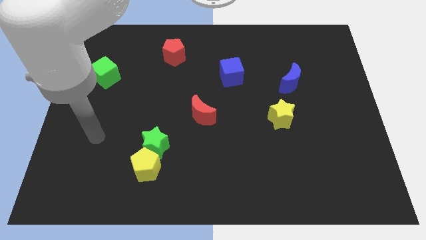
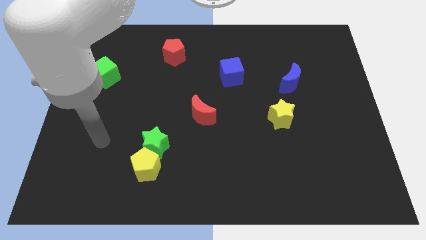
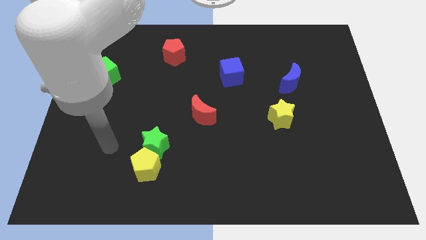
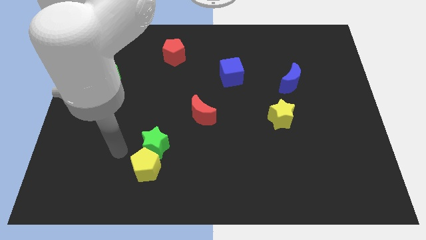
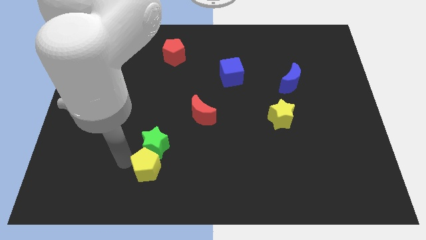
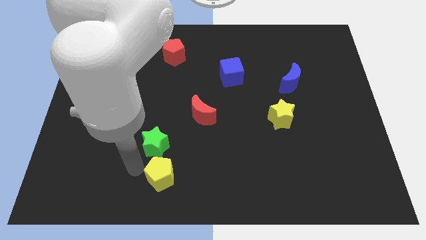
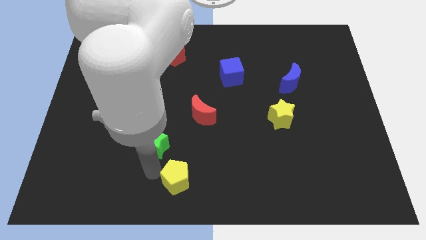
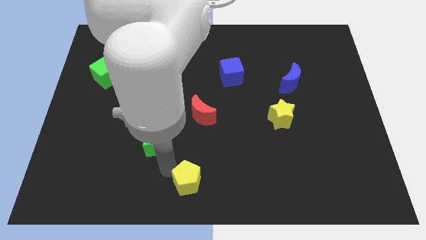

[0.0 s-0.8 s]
separate the green star from the yellow pentagon

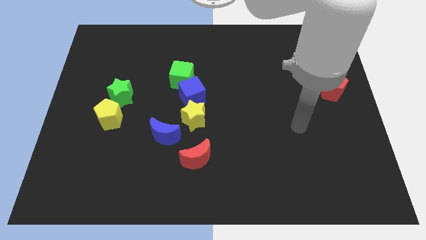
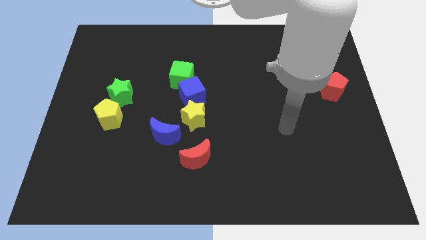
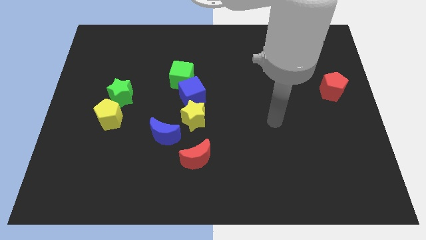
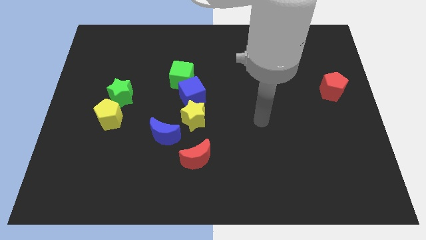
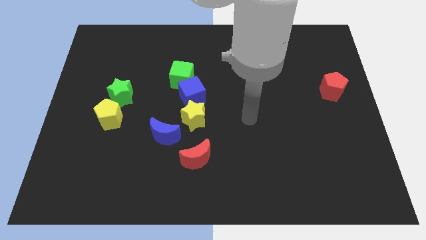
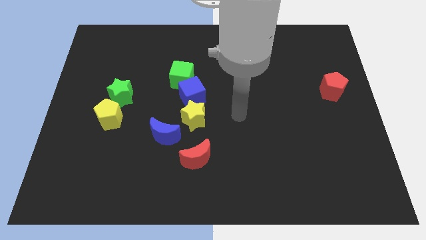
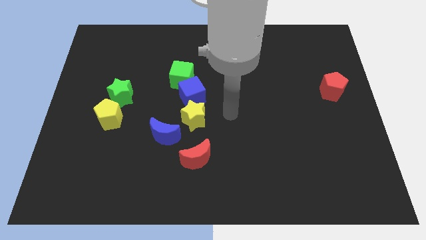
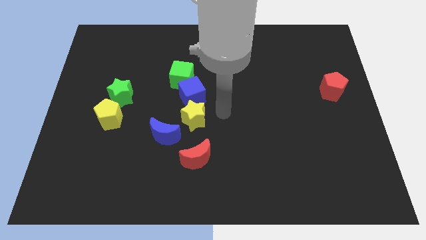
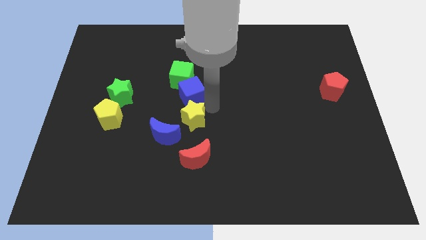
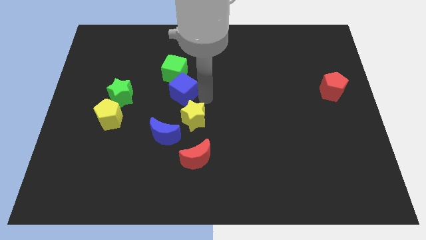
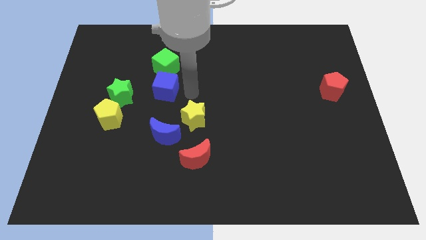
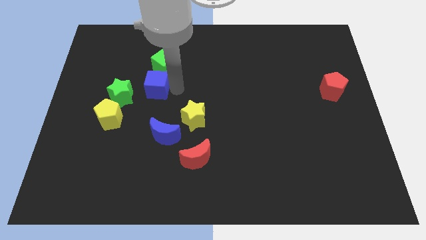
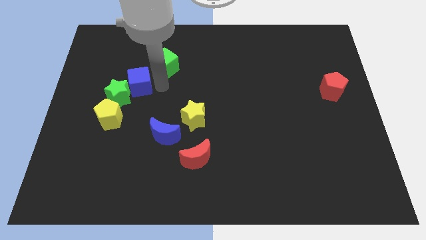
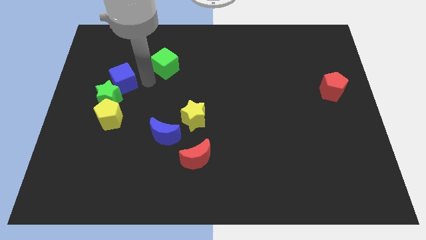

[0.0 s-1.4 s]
move the green cube away from the blue cube

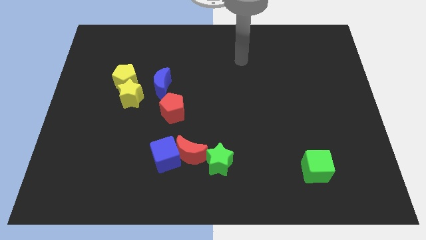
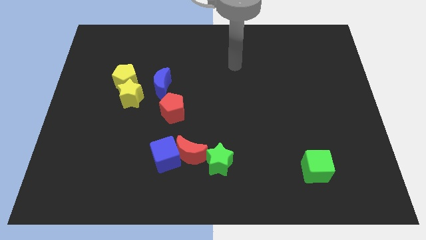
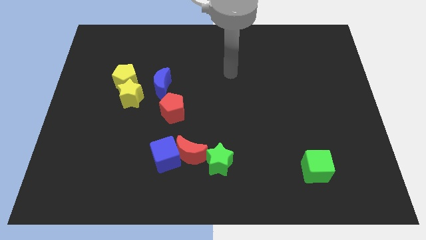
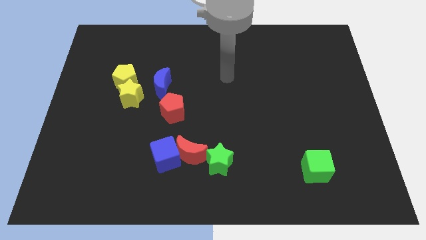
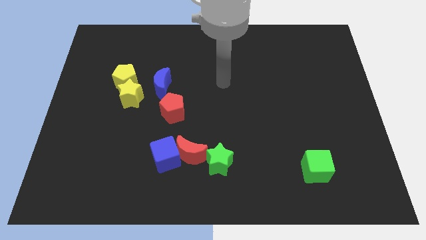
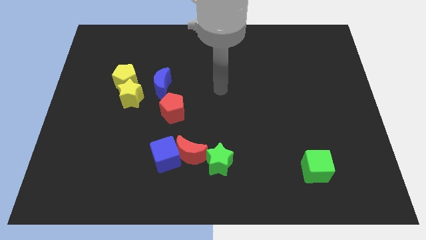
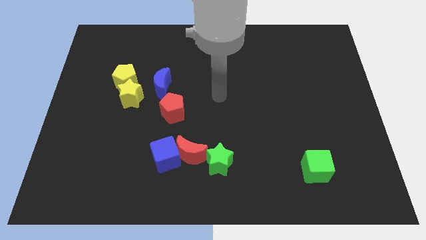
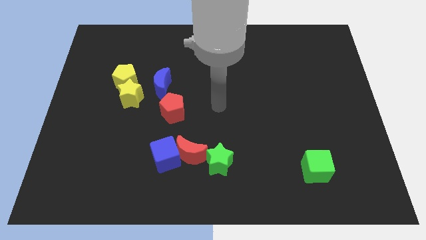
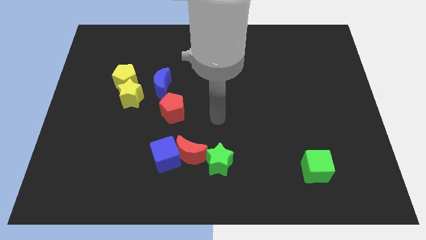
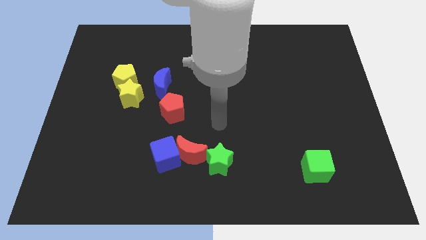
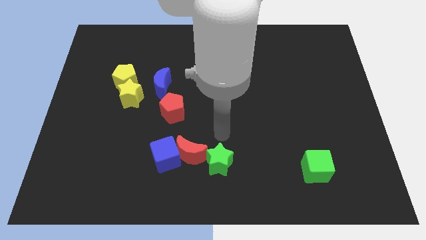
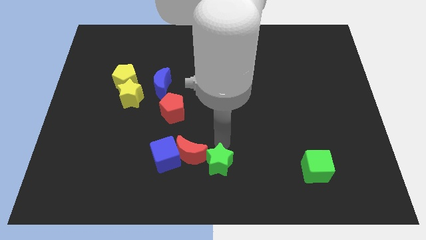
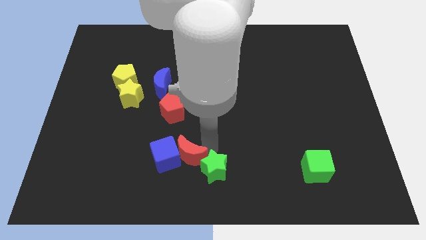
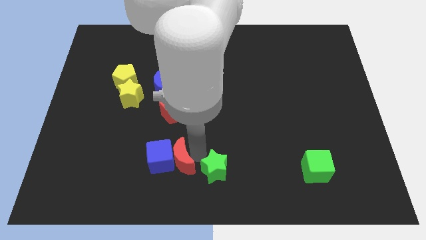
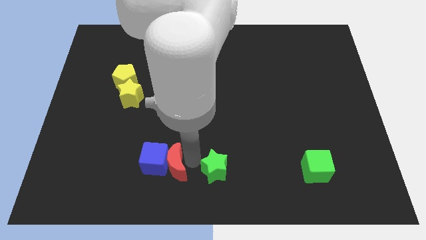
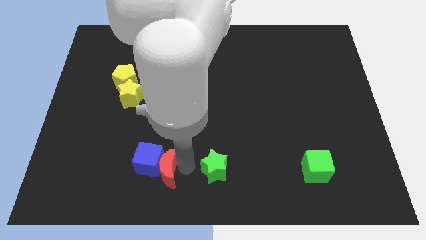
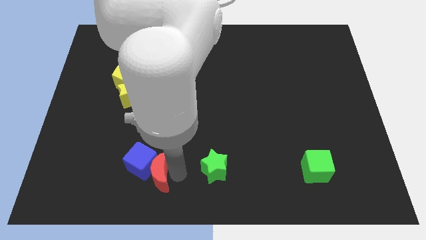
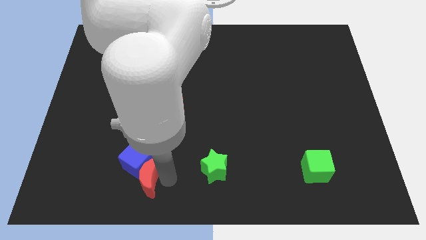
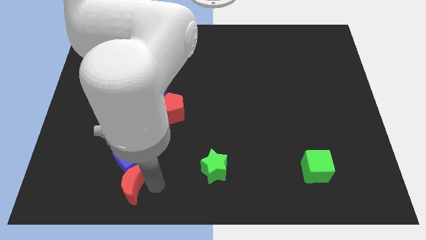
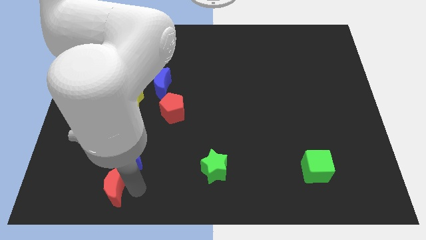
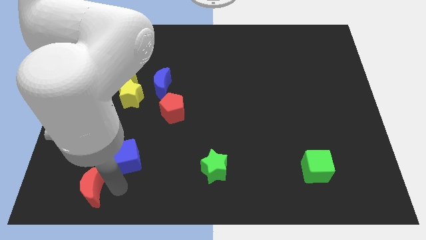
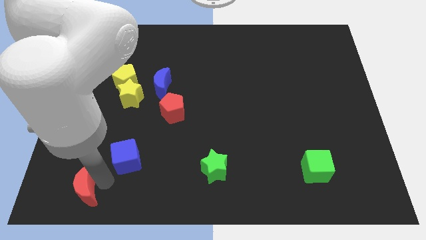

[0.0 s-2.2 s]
separate the blue cube from the red moon

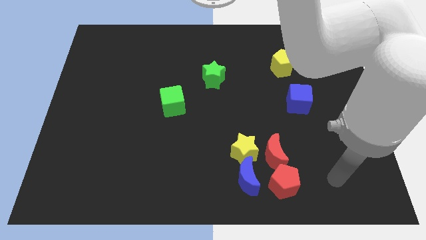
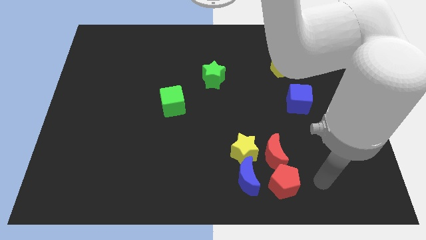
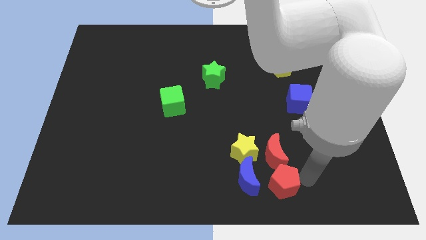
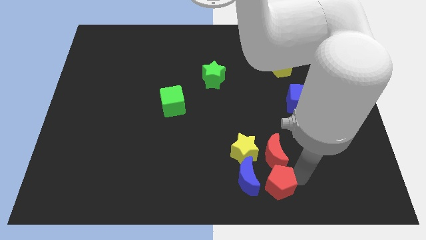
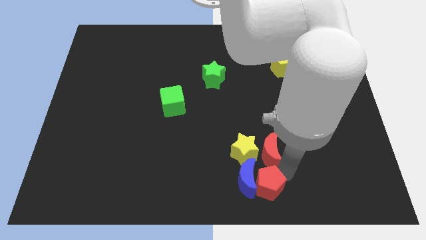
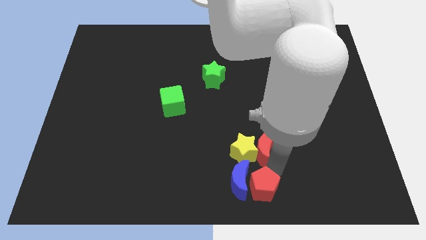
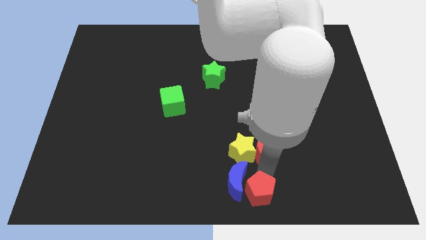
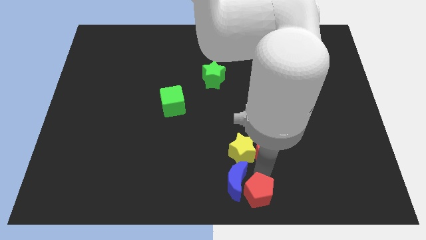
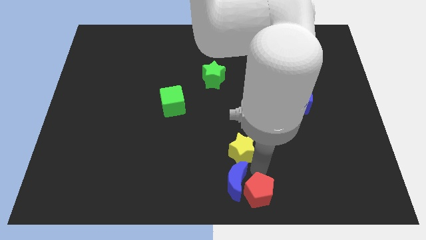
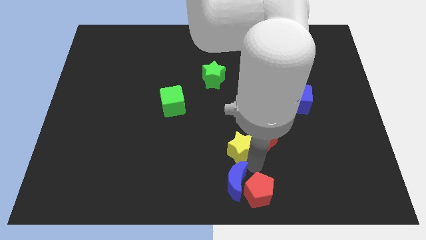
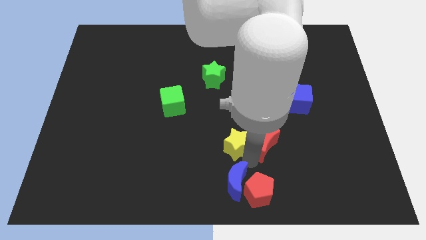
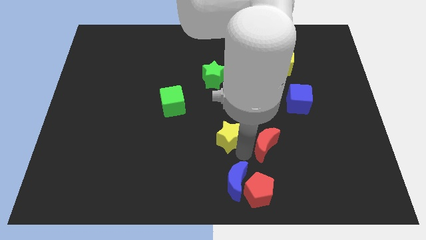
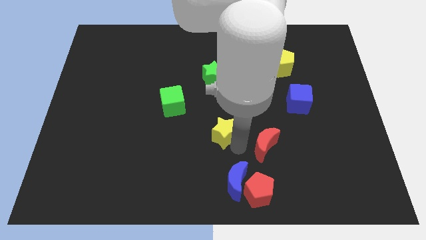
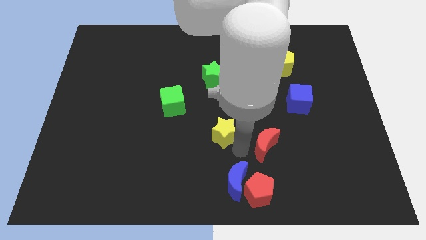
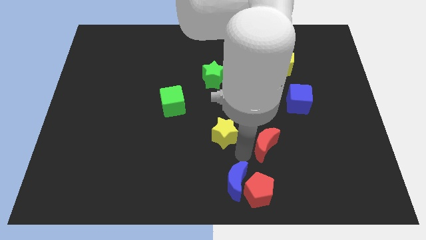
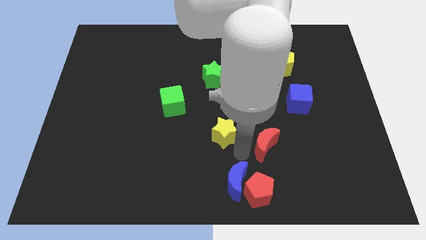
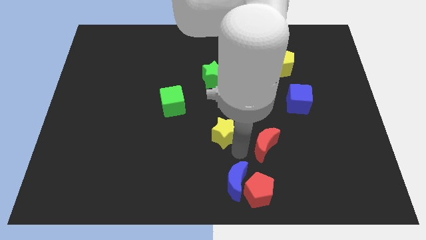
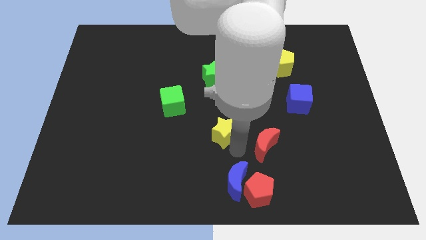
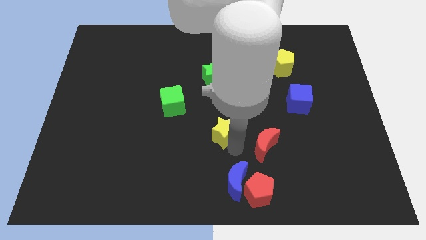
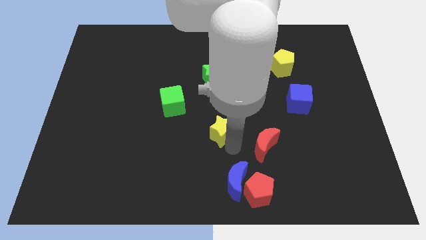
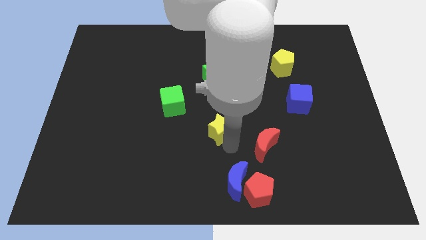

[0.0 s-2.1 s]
separate the yellow star from the red moon and blue moon

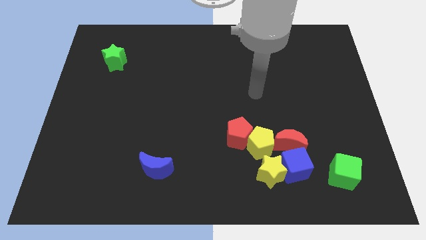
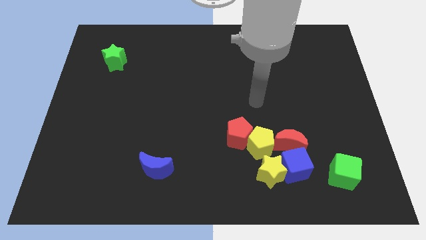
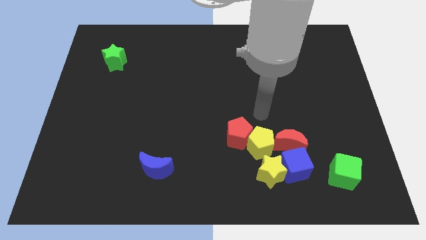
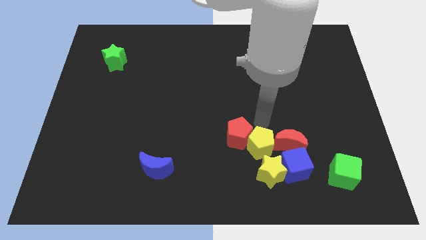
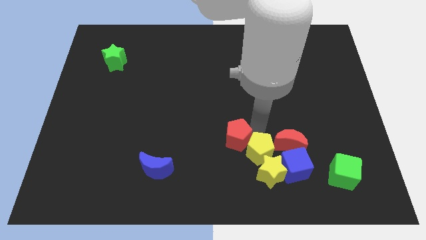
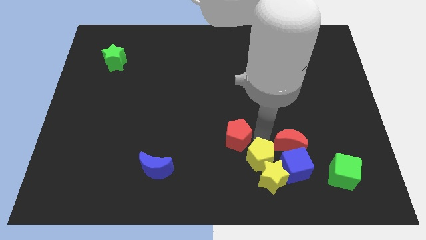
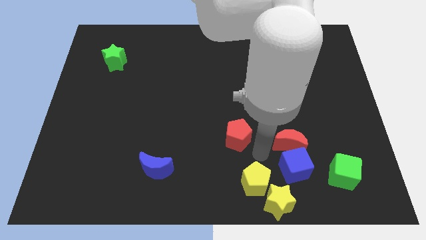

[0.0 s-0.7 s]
separate the red pentagon from the yellow pentagon

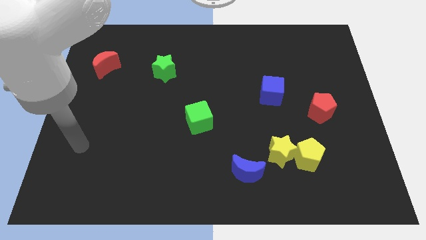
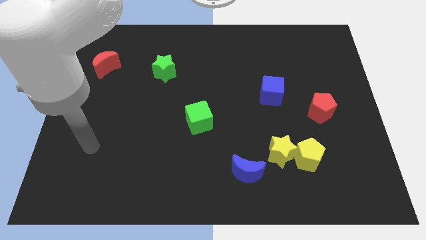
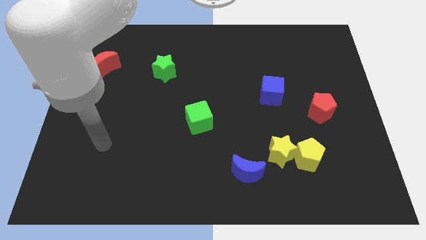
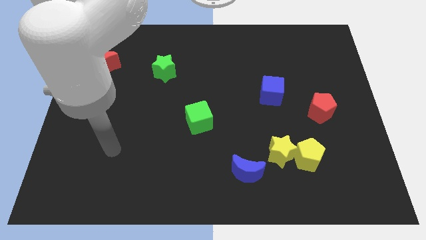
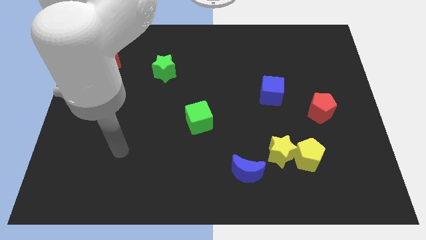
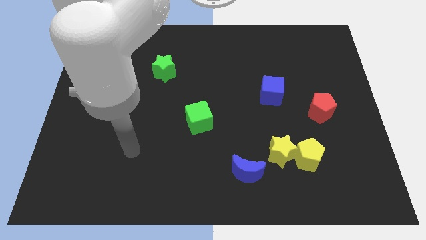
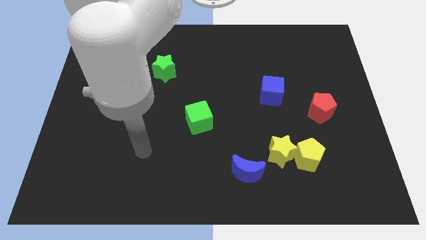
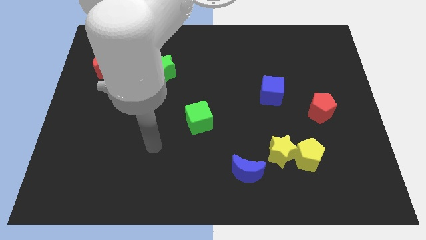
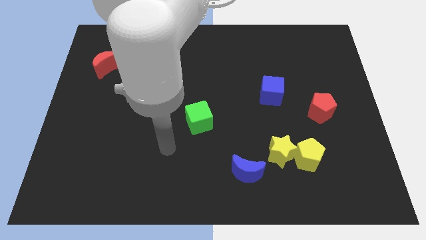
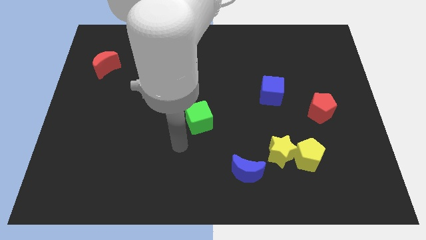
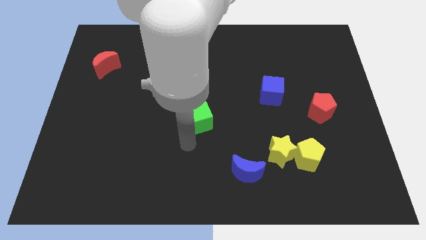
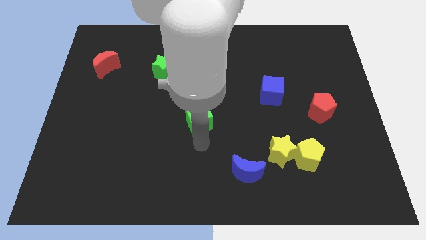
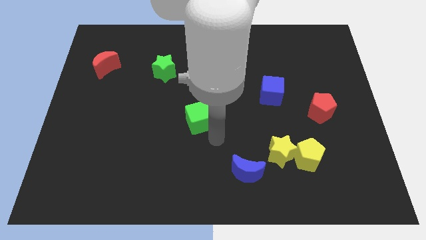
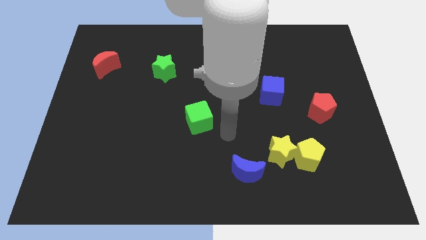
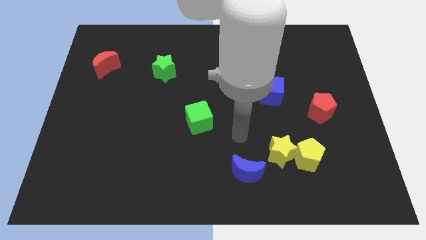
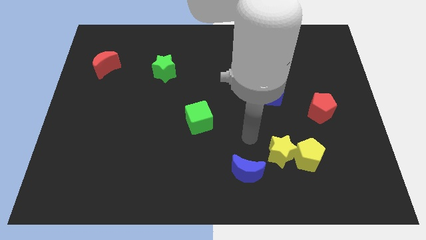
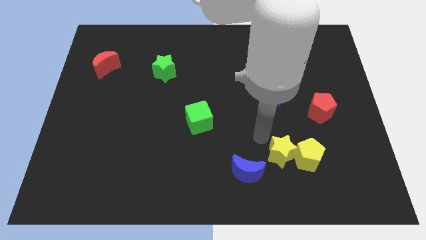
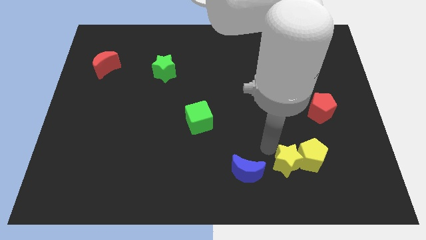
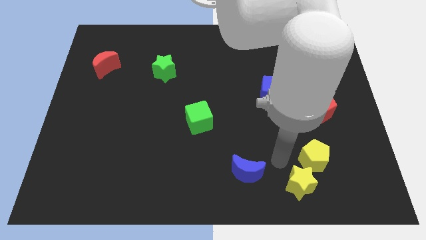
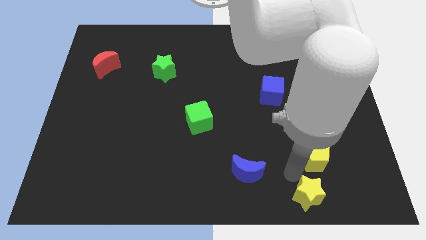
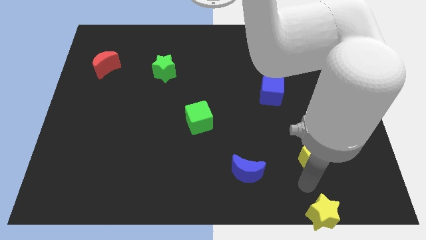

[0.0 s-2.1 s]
pull the yellow pentagon apart from the yellow star
